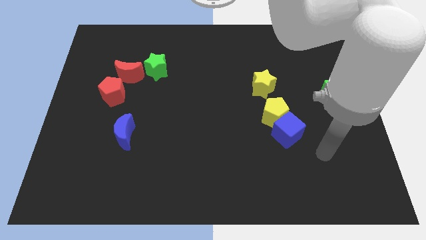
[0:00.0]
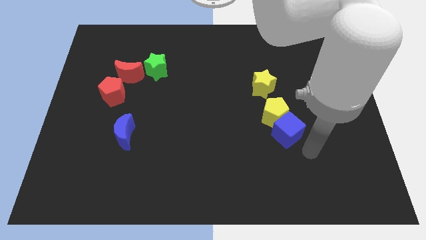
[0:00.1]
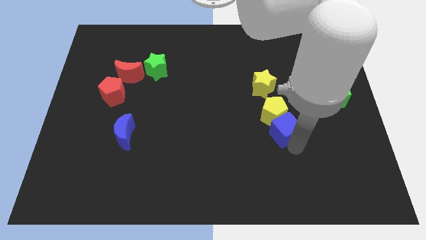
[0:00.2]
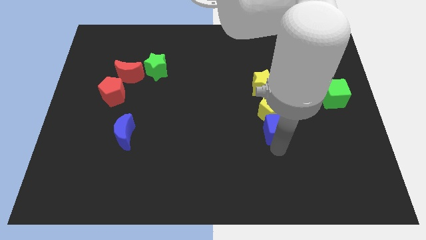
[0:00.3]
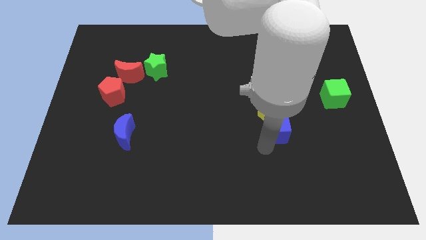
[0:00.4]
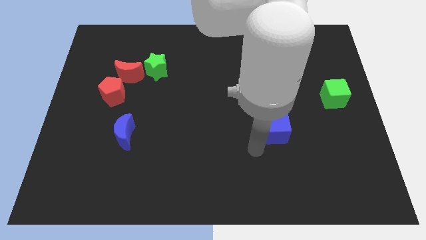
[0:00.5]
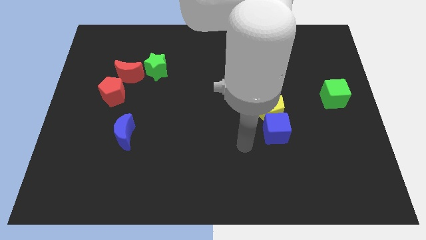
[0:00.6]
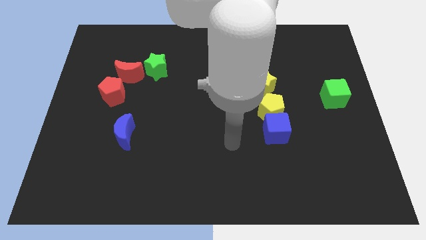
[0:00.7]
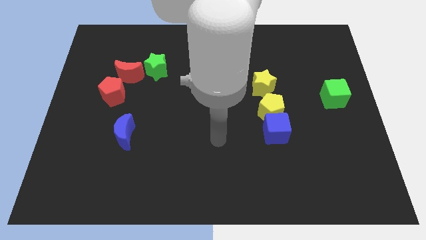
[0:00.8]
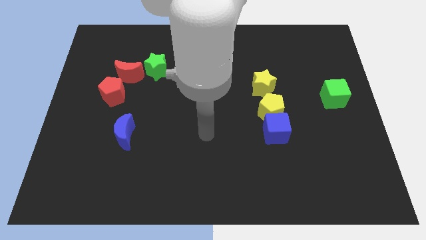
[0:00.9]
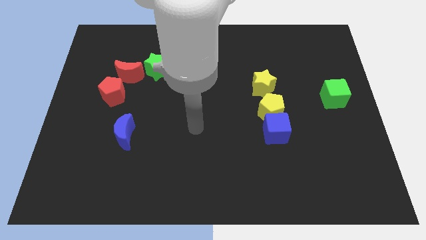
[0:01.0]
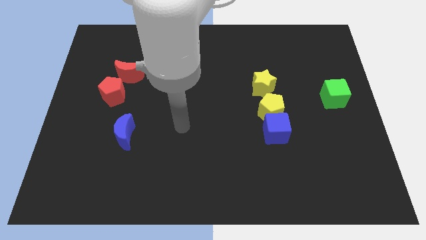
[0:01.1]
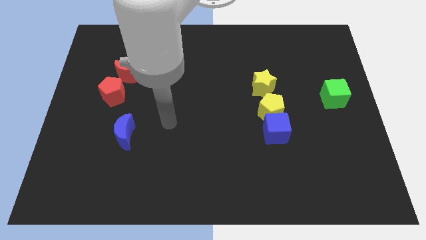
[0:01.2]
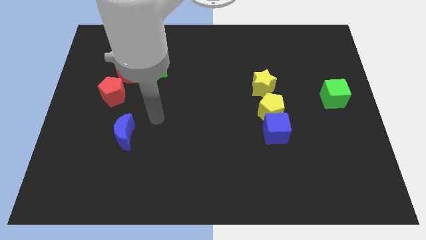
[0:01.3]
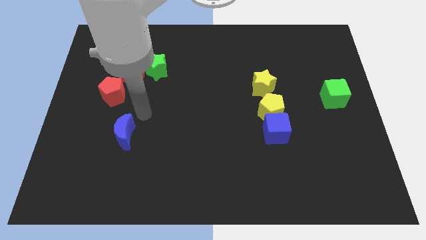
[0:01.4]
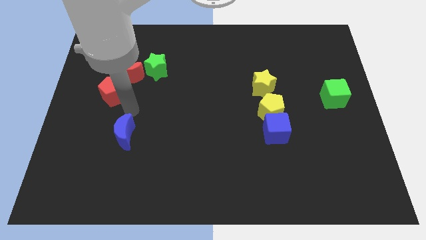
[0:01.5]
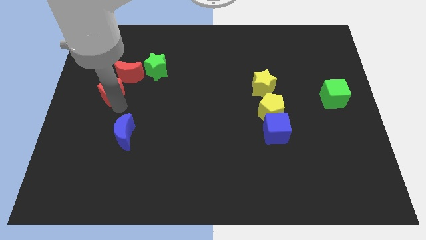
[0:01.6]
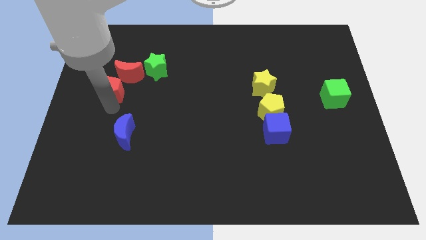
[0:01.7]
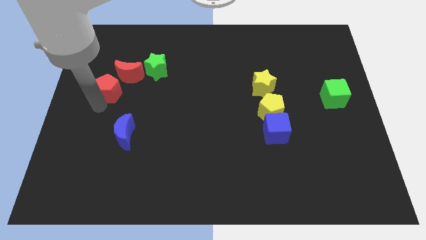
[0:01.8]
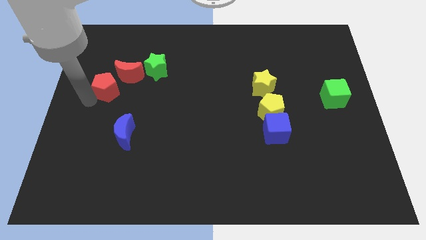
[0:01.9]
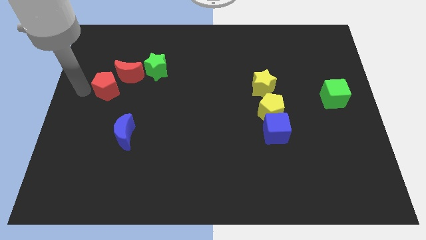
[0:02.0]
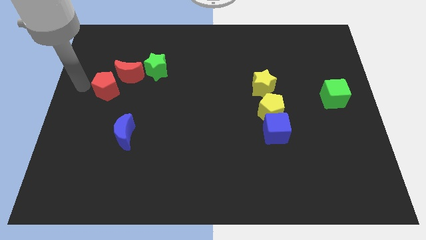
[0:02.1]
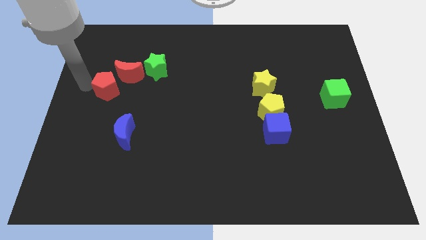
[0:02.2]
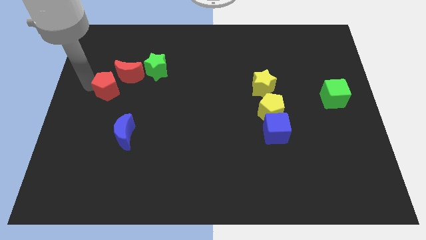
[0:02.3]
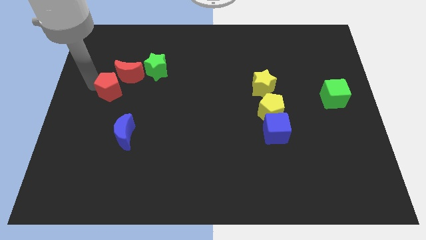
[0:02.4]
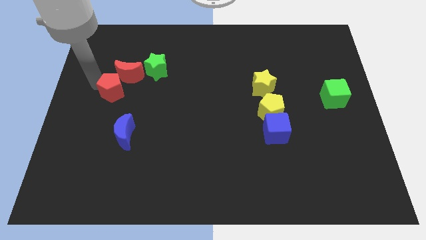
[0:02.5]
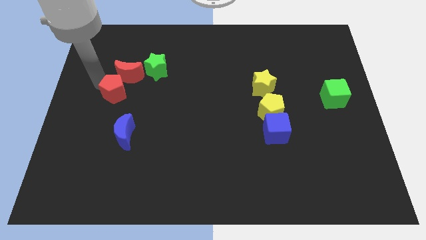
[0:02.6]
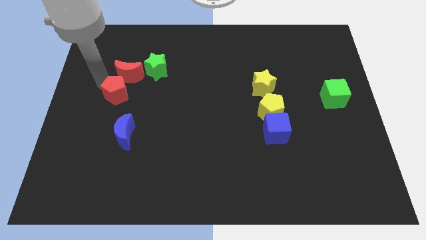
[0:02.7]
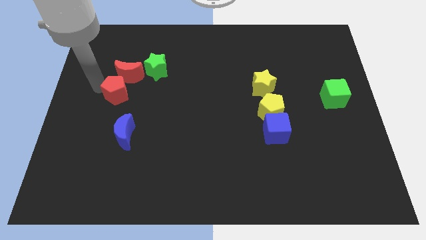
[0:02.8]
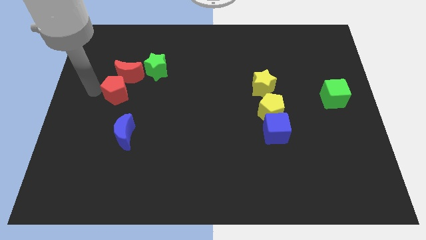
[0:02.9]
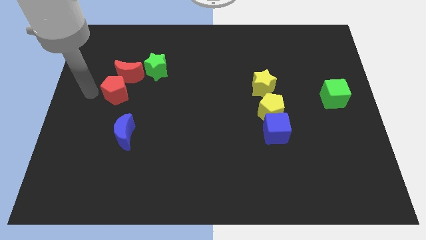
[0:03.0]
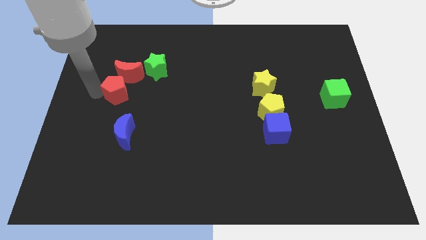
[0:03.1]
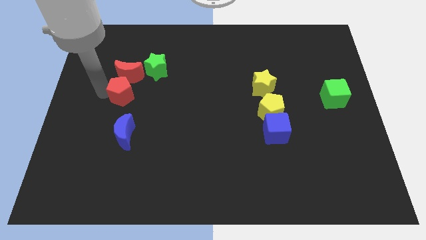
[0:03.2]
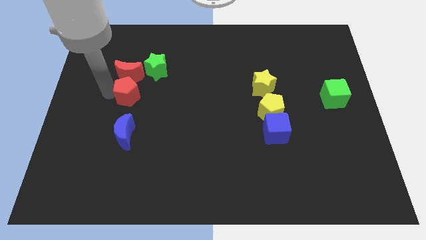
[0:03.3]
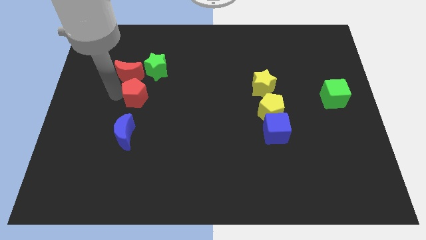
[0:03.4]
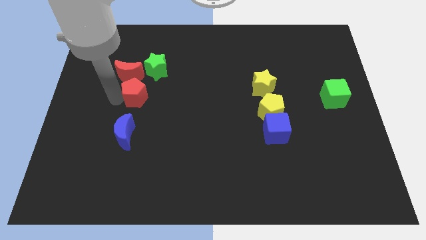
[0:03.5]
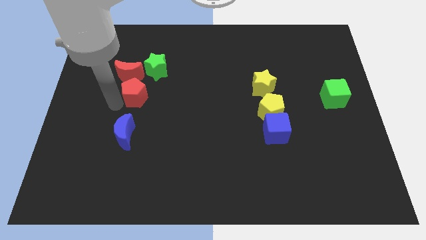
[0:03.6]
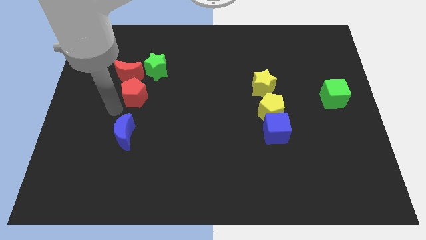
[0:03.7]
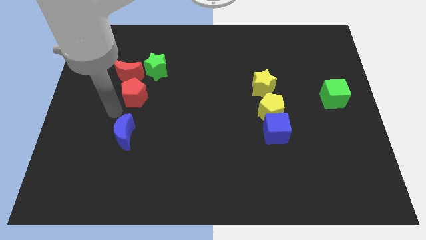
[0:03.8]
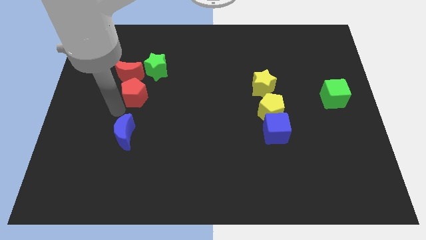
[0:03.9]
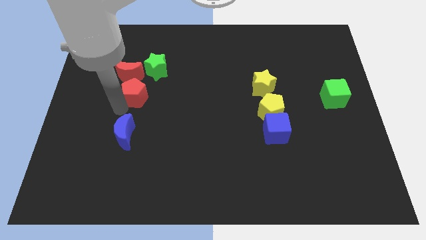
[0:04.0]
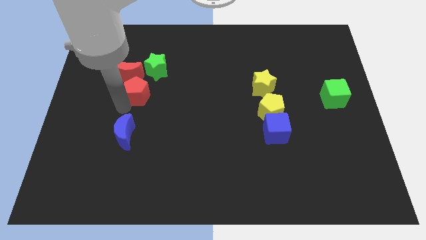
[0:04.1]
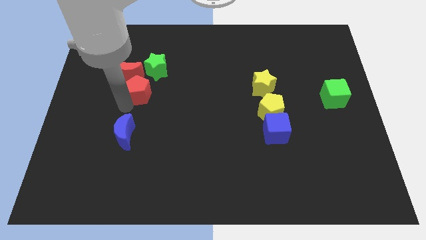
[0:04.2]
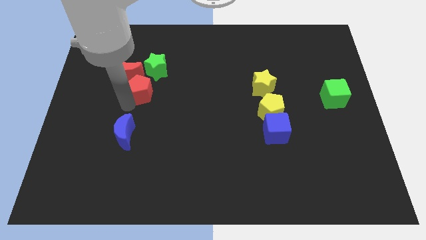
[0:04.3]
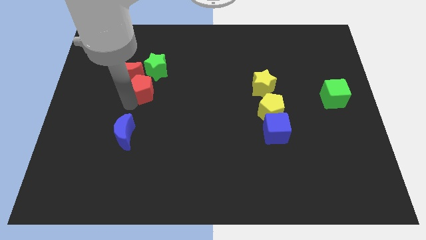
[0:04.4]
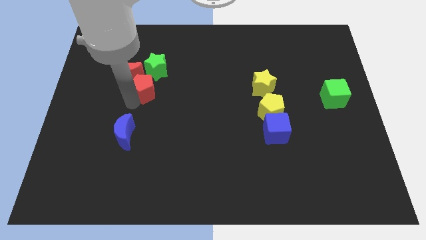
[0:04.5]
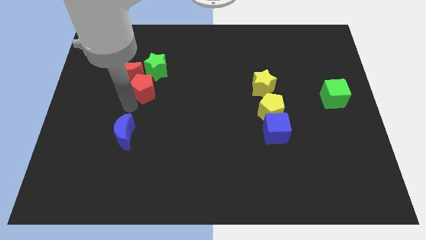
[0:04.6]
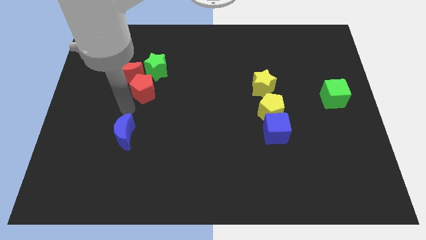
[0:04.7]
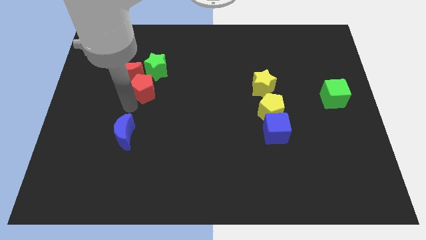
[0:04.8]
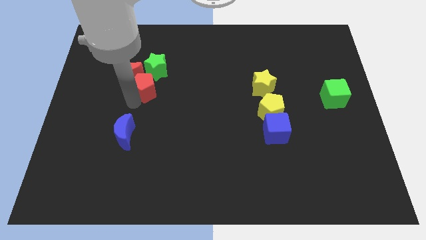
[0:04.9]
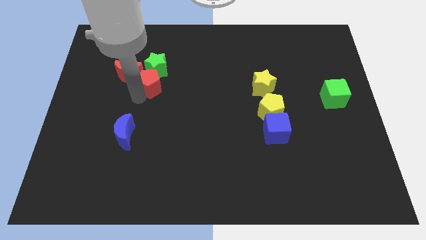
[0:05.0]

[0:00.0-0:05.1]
put the red pentagon towards the green star

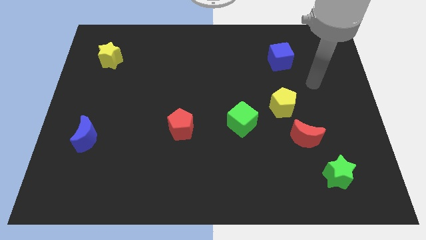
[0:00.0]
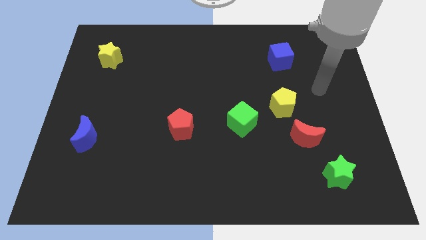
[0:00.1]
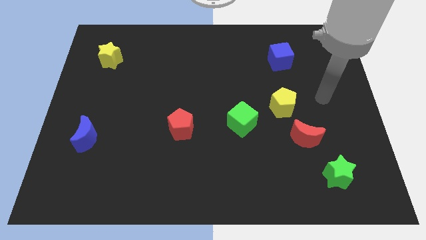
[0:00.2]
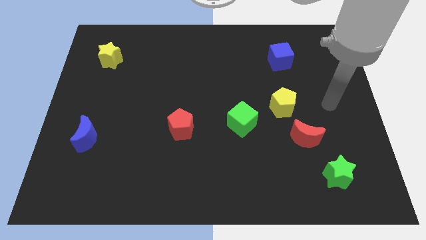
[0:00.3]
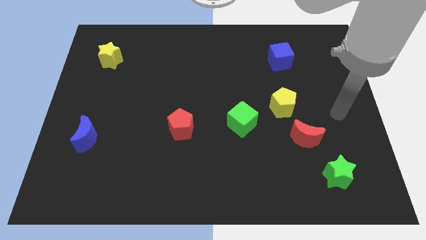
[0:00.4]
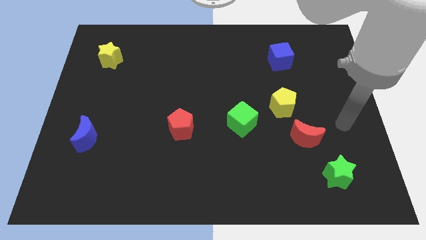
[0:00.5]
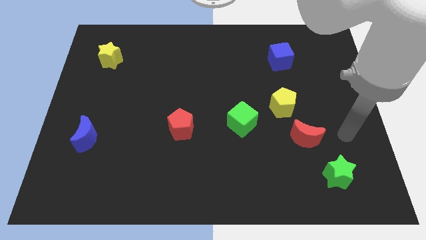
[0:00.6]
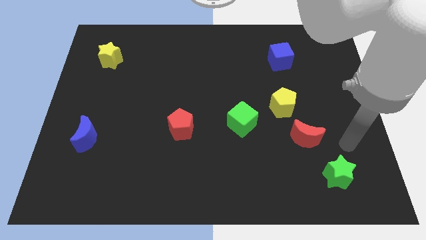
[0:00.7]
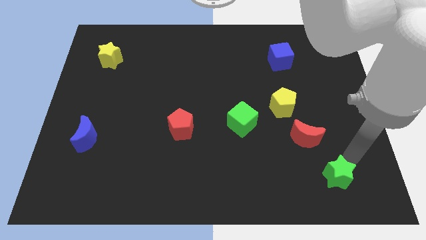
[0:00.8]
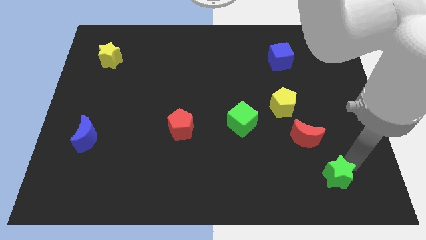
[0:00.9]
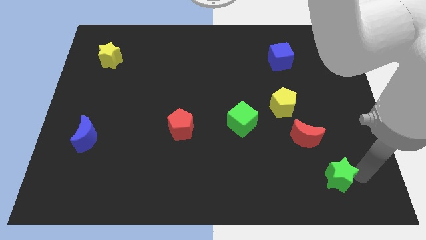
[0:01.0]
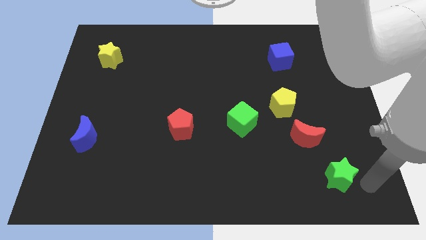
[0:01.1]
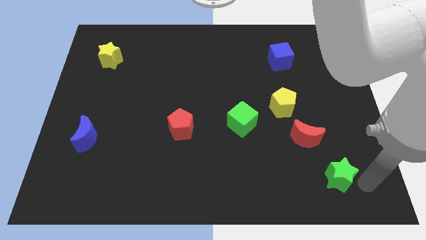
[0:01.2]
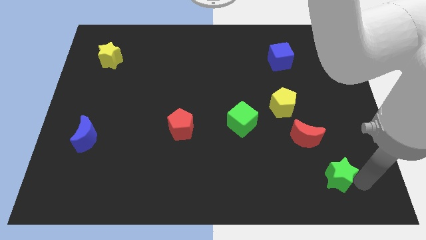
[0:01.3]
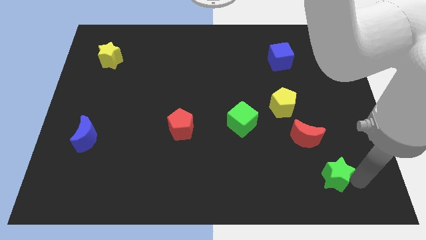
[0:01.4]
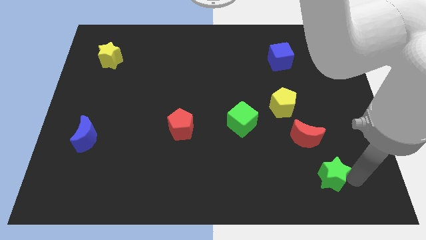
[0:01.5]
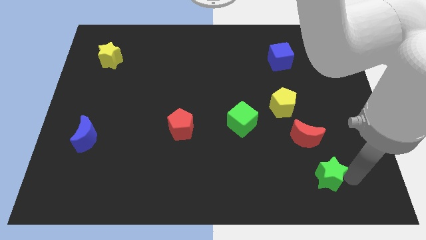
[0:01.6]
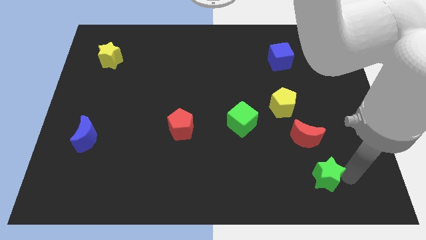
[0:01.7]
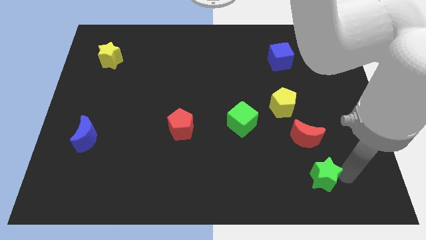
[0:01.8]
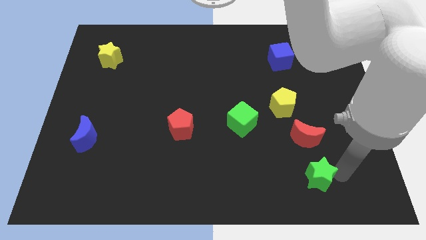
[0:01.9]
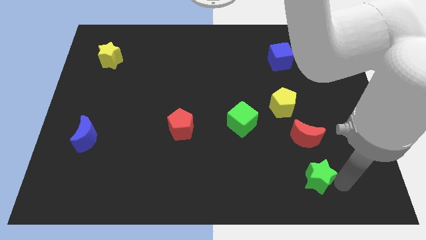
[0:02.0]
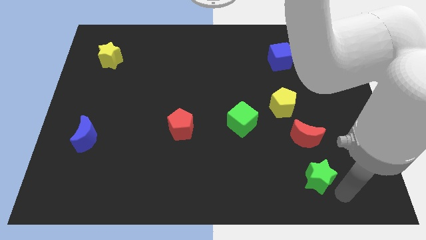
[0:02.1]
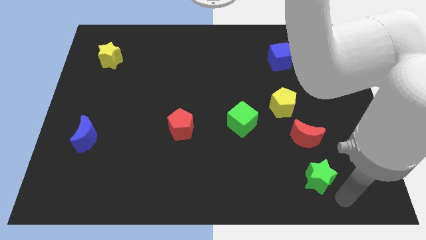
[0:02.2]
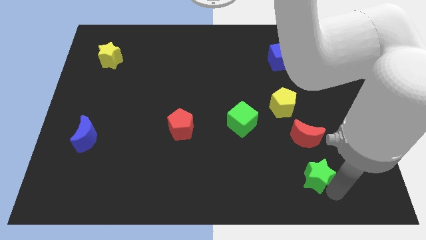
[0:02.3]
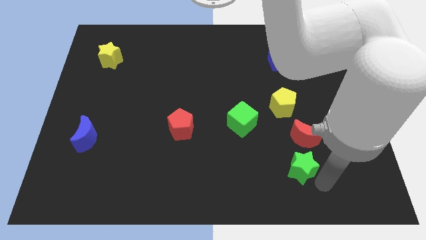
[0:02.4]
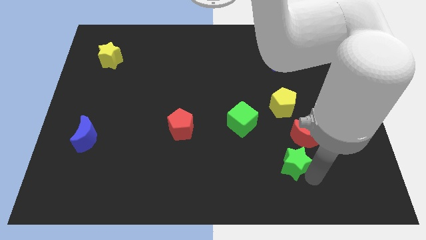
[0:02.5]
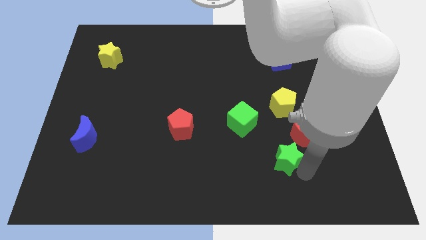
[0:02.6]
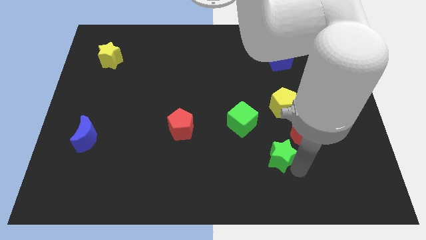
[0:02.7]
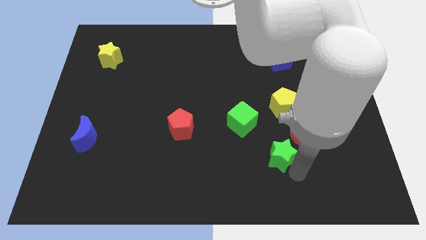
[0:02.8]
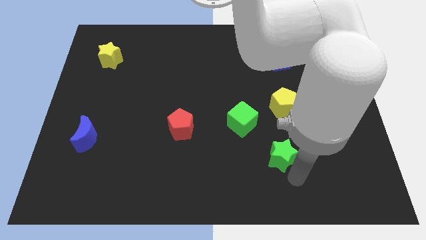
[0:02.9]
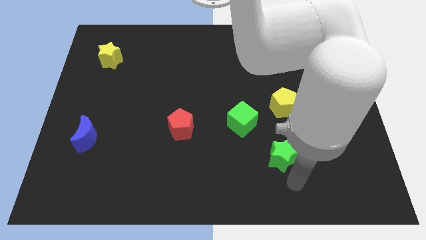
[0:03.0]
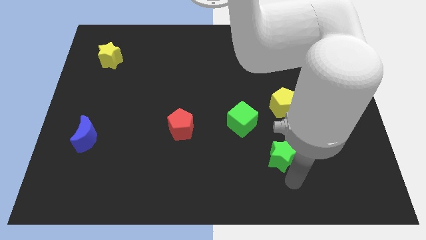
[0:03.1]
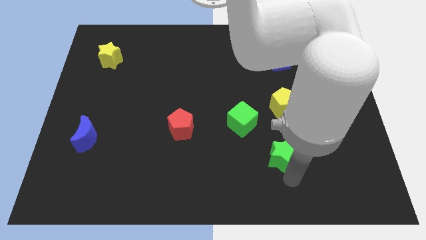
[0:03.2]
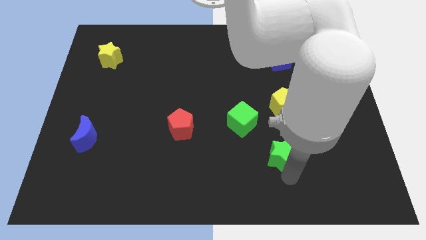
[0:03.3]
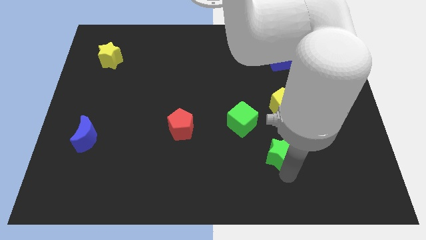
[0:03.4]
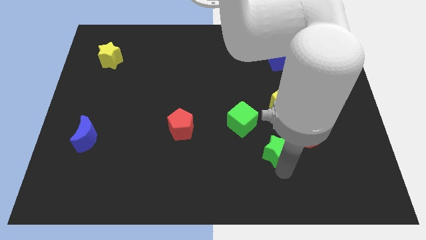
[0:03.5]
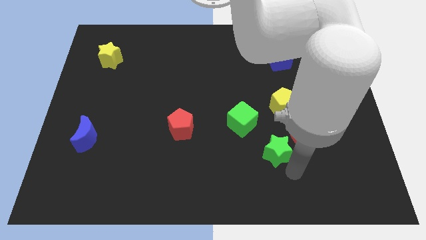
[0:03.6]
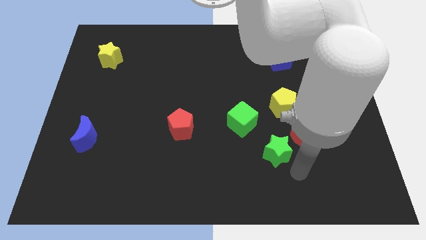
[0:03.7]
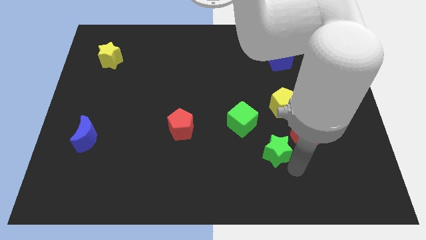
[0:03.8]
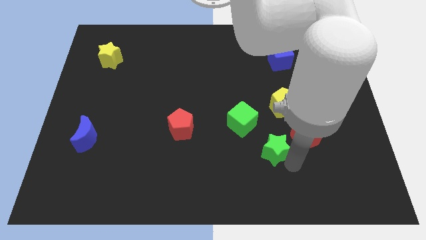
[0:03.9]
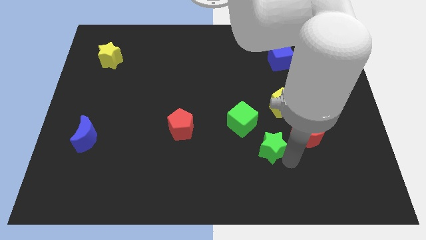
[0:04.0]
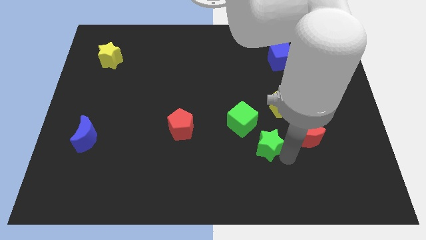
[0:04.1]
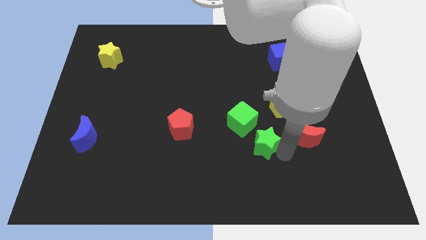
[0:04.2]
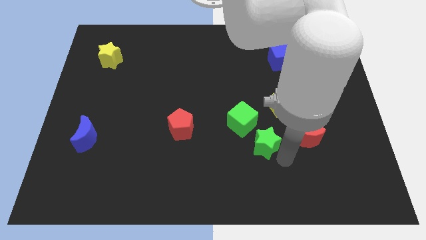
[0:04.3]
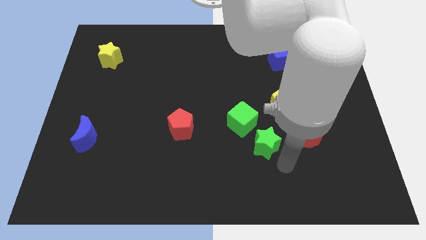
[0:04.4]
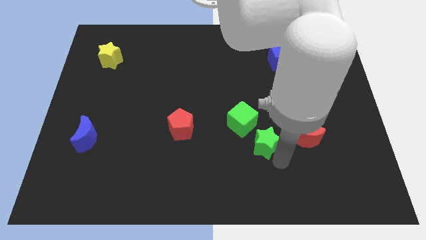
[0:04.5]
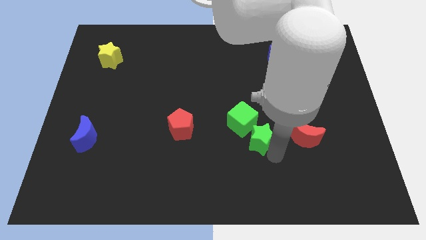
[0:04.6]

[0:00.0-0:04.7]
move the green star towards the green cube
